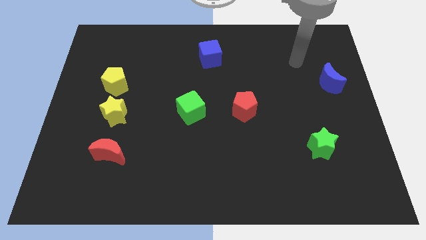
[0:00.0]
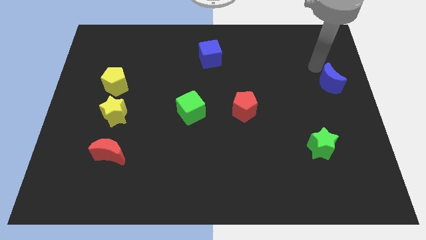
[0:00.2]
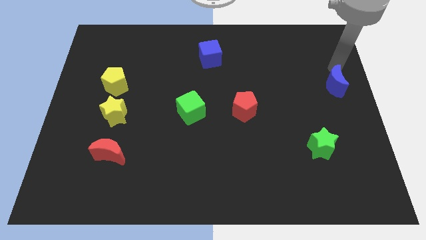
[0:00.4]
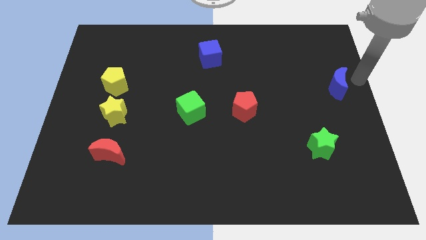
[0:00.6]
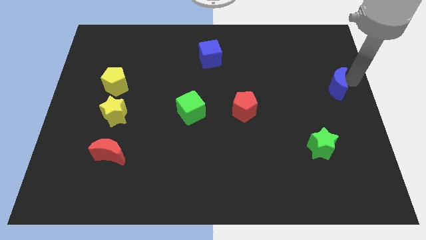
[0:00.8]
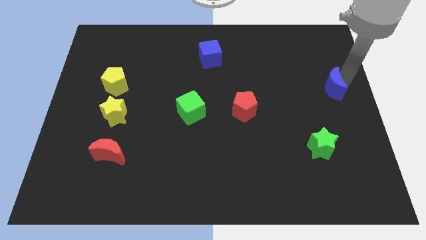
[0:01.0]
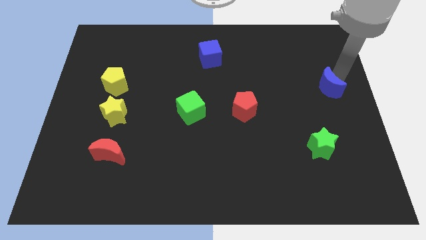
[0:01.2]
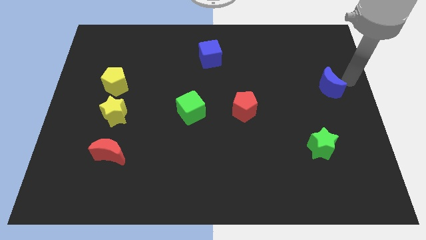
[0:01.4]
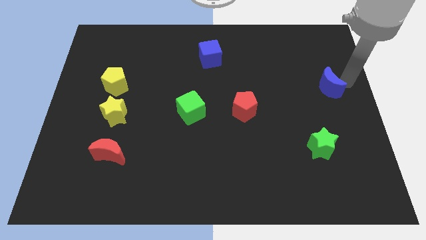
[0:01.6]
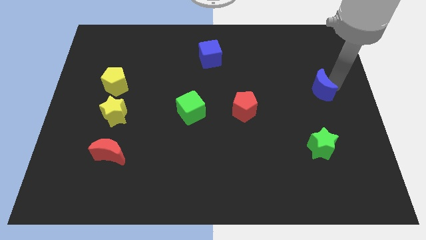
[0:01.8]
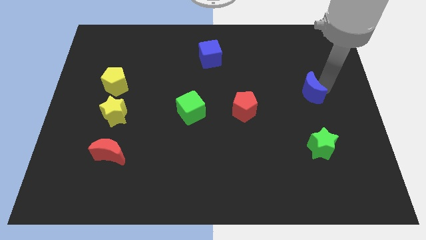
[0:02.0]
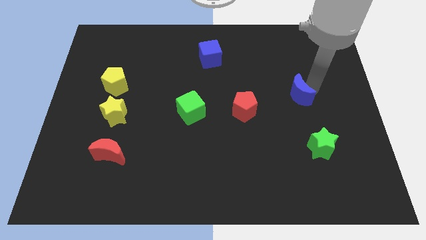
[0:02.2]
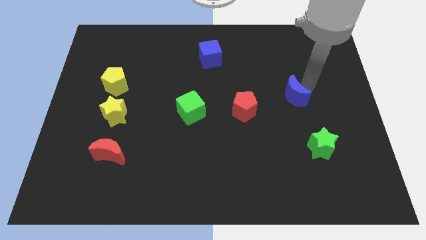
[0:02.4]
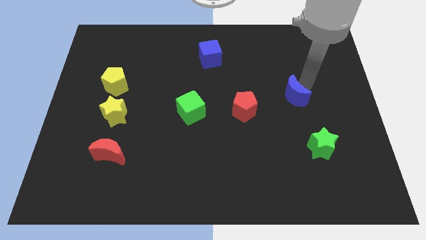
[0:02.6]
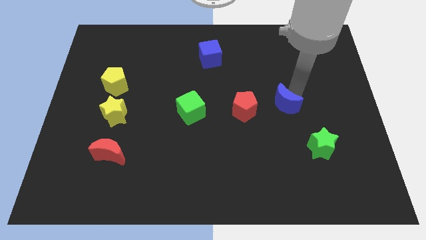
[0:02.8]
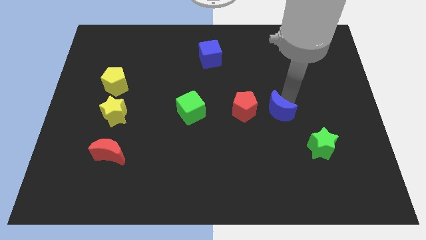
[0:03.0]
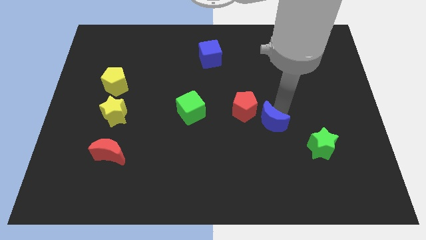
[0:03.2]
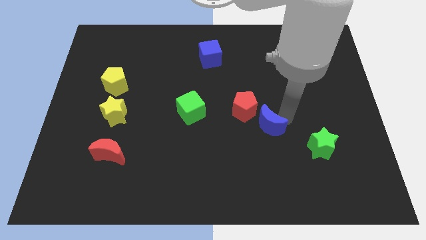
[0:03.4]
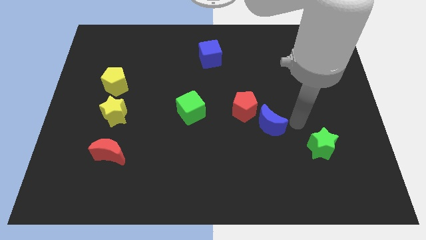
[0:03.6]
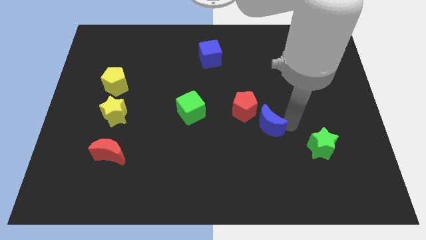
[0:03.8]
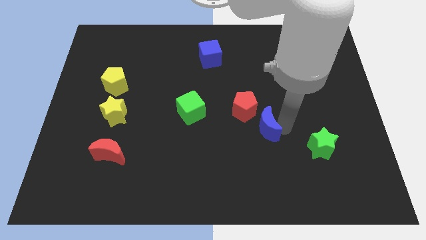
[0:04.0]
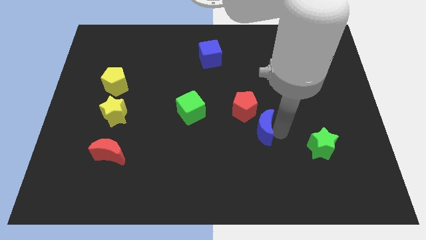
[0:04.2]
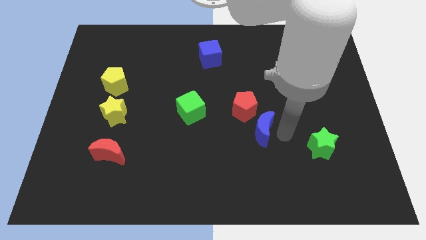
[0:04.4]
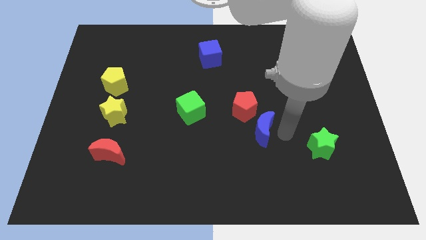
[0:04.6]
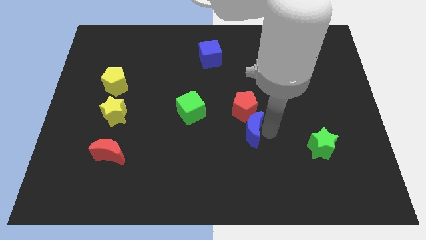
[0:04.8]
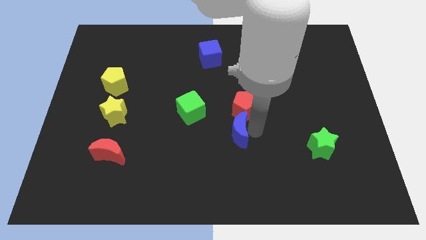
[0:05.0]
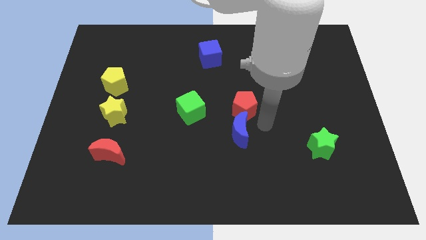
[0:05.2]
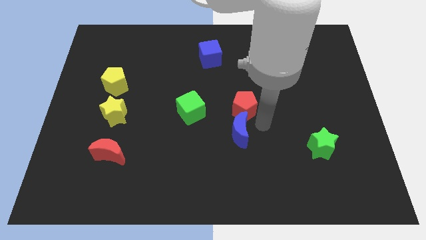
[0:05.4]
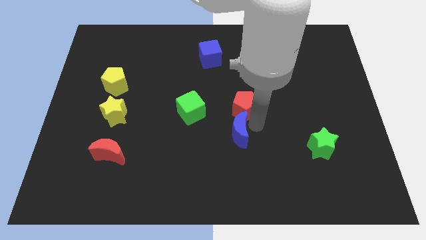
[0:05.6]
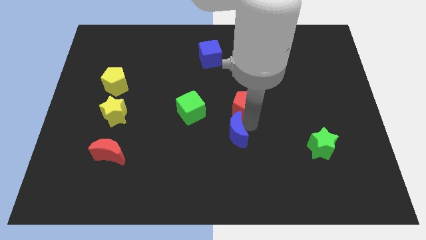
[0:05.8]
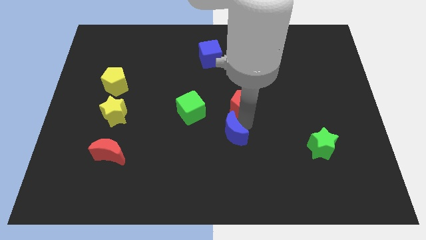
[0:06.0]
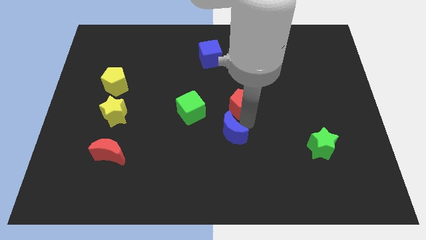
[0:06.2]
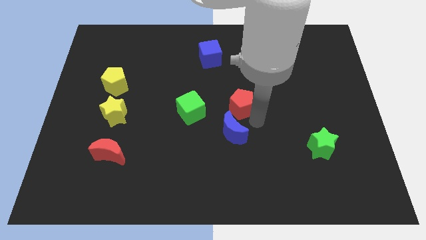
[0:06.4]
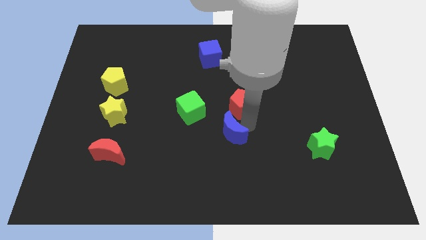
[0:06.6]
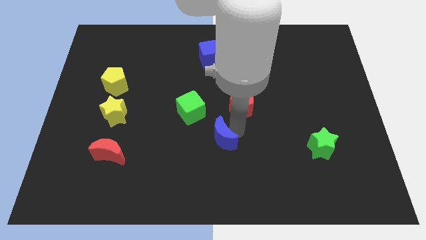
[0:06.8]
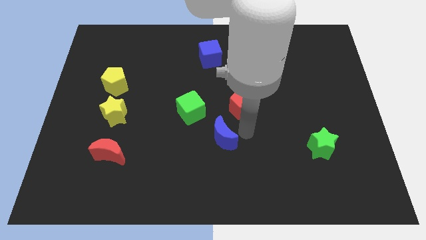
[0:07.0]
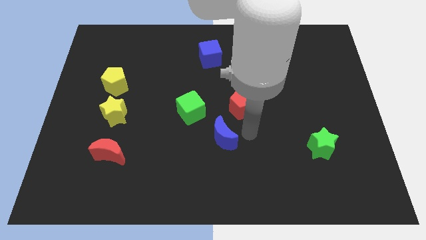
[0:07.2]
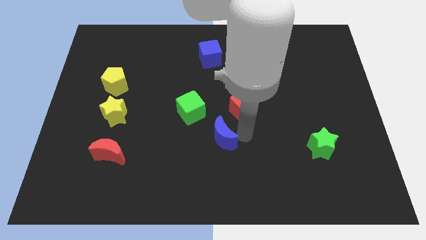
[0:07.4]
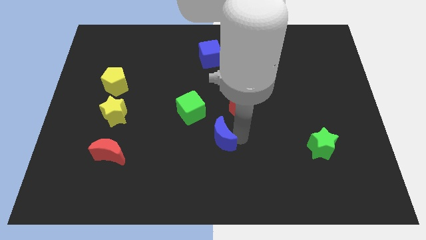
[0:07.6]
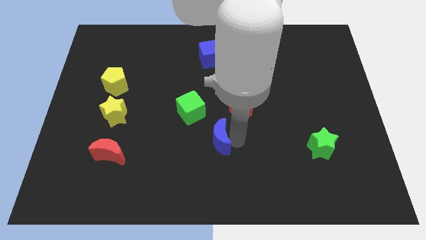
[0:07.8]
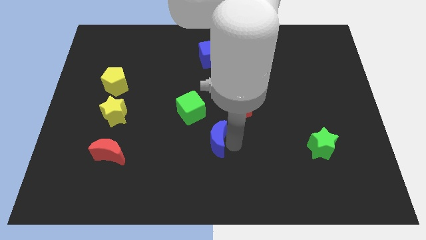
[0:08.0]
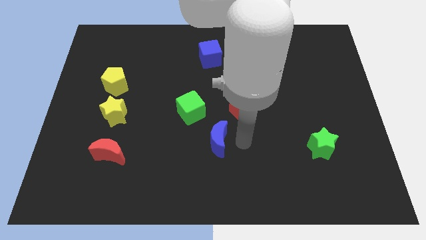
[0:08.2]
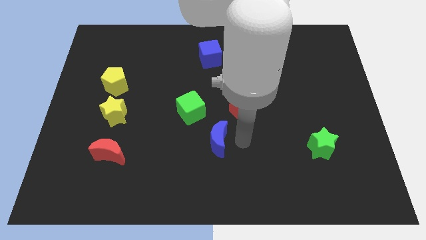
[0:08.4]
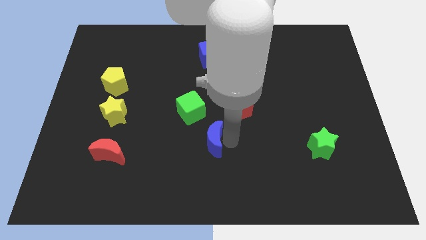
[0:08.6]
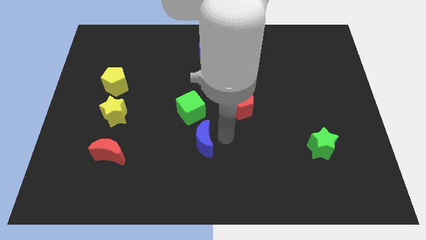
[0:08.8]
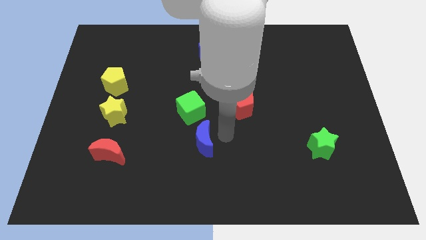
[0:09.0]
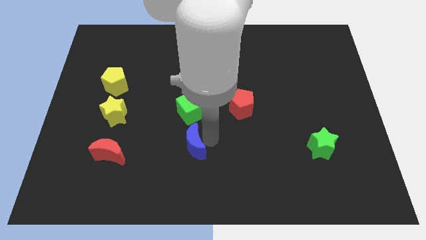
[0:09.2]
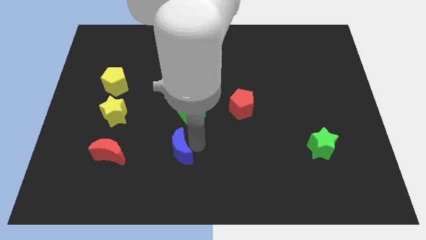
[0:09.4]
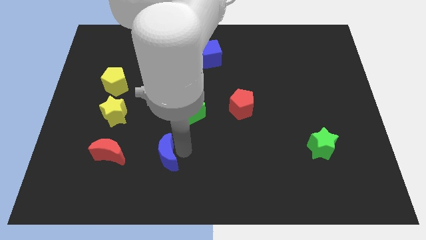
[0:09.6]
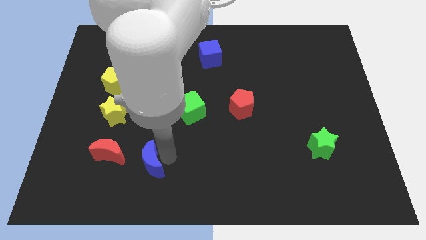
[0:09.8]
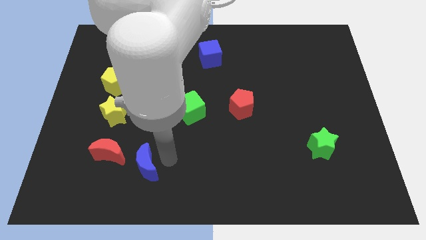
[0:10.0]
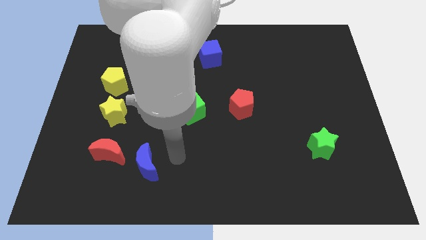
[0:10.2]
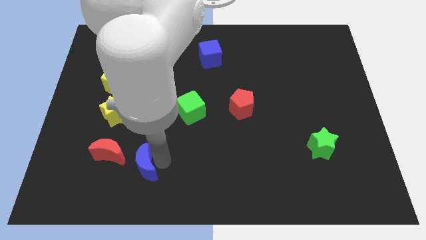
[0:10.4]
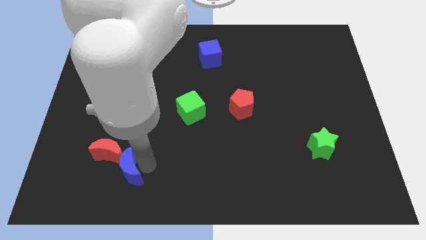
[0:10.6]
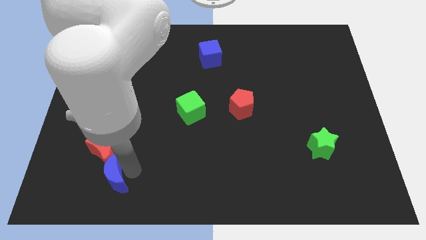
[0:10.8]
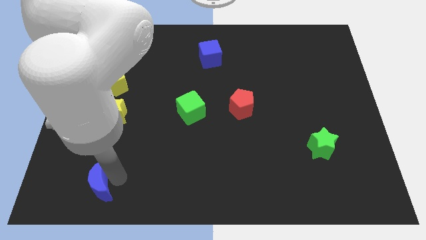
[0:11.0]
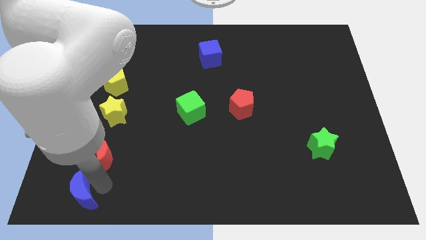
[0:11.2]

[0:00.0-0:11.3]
push the blue moon to the lower left corner
